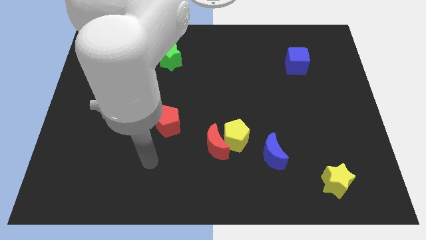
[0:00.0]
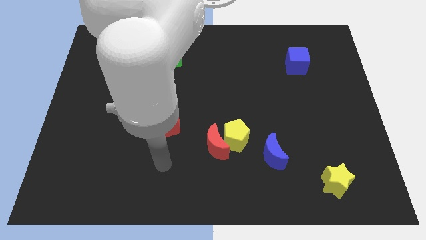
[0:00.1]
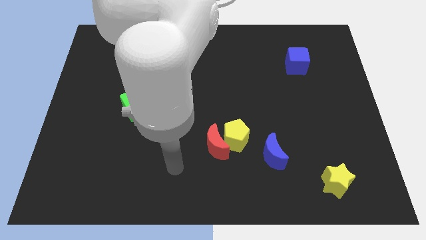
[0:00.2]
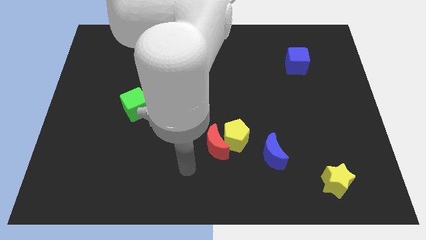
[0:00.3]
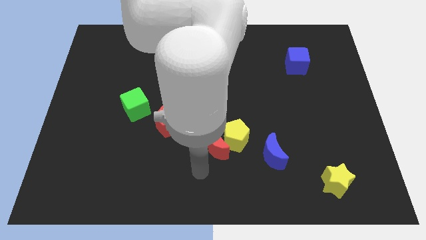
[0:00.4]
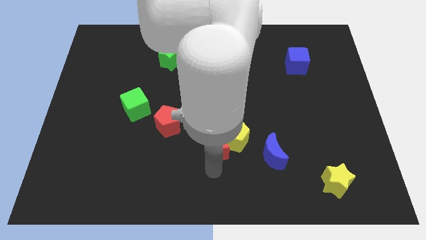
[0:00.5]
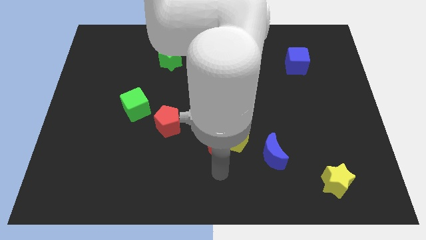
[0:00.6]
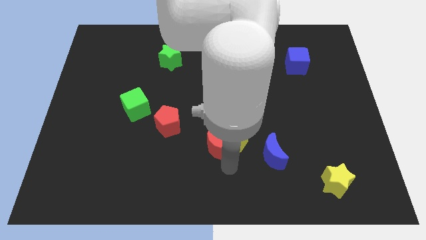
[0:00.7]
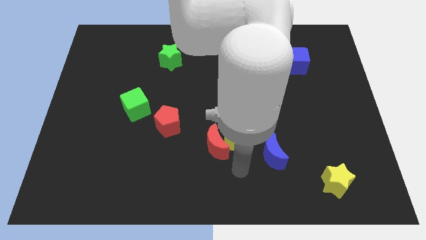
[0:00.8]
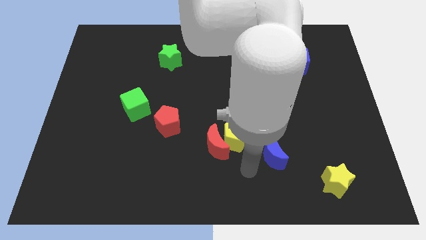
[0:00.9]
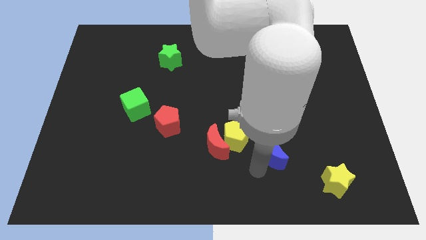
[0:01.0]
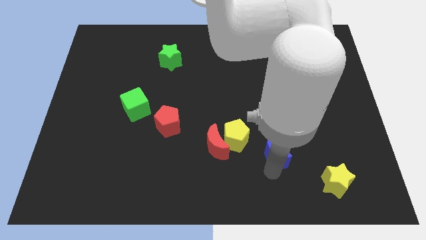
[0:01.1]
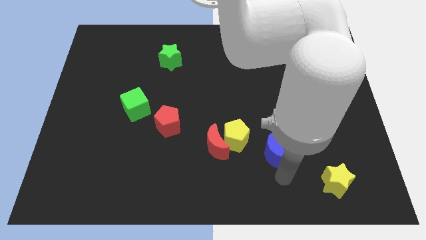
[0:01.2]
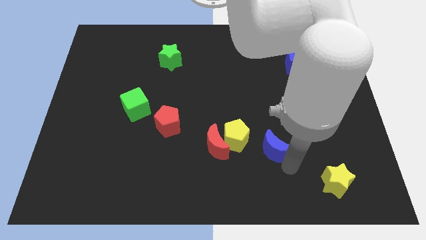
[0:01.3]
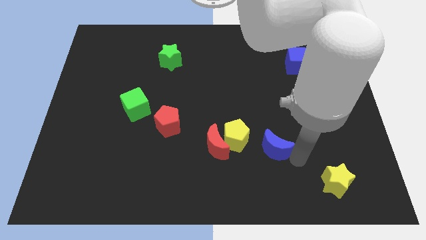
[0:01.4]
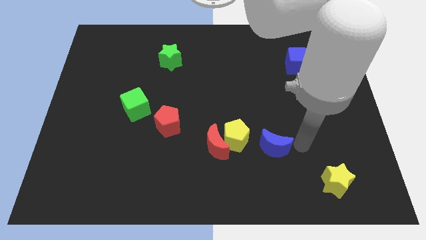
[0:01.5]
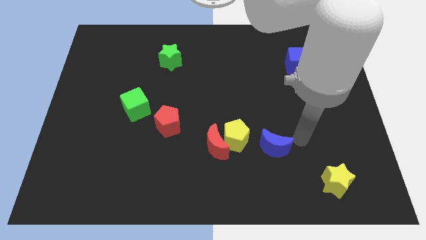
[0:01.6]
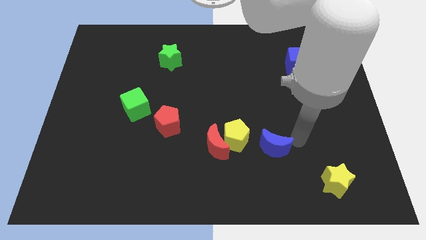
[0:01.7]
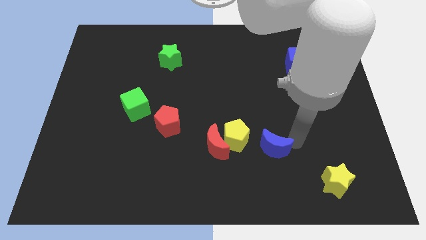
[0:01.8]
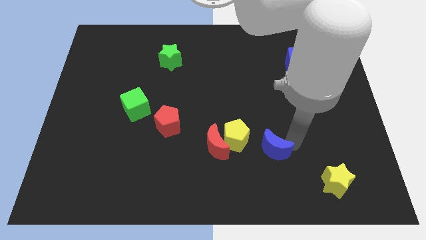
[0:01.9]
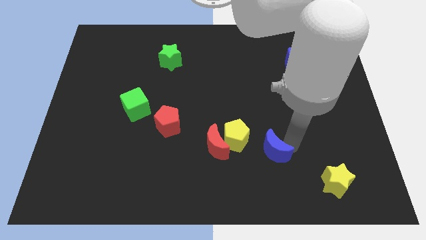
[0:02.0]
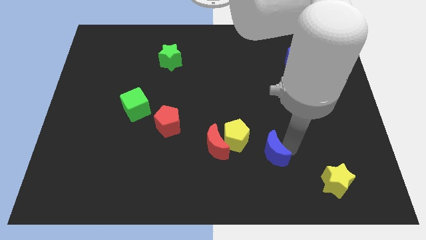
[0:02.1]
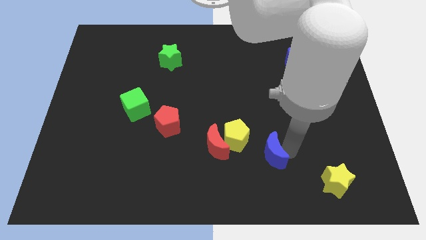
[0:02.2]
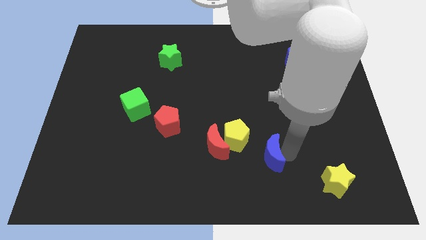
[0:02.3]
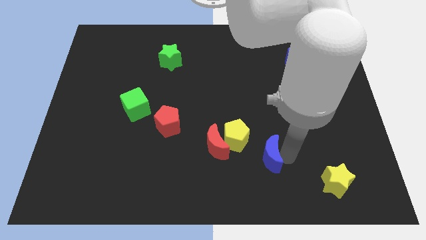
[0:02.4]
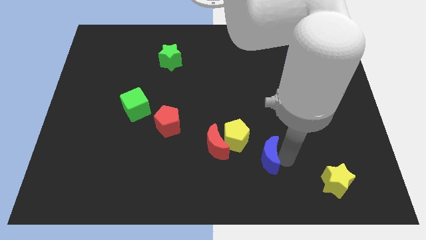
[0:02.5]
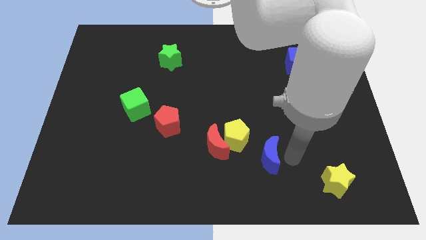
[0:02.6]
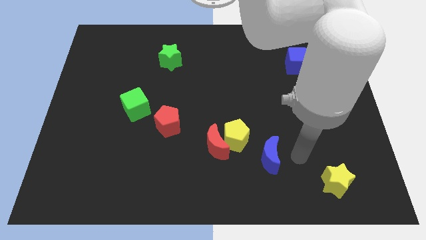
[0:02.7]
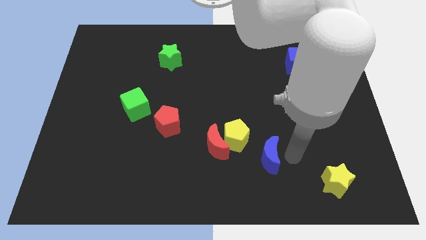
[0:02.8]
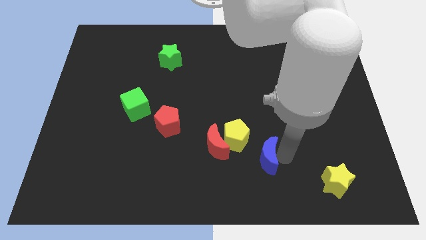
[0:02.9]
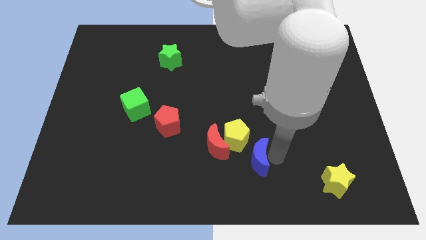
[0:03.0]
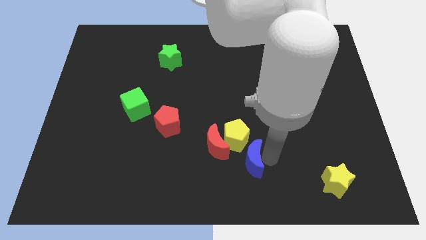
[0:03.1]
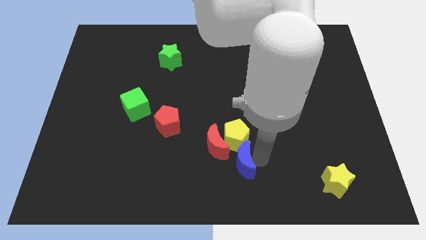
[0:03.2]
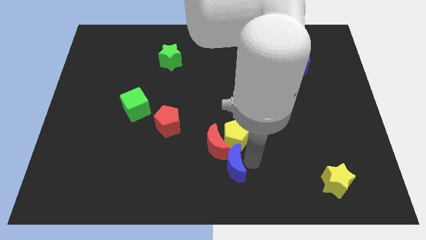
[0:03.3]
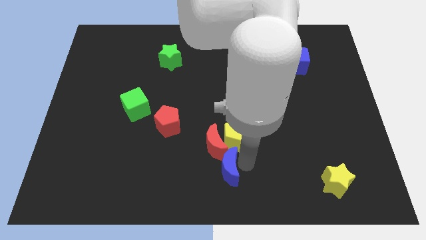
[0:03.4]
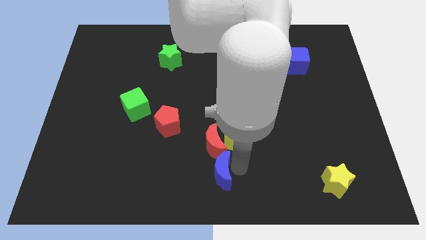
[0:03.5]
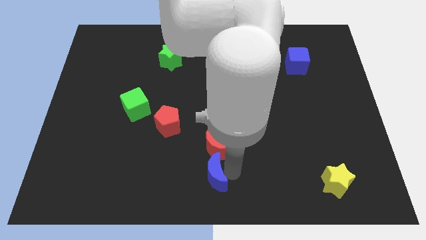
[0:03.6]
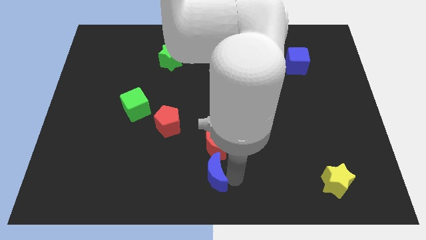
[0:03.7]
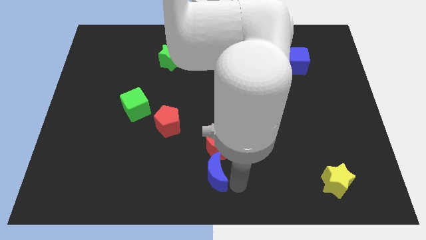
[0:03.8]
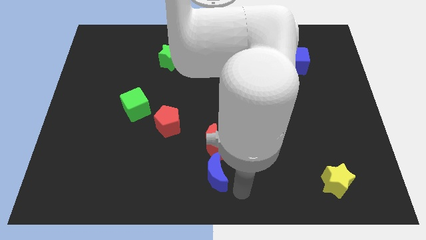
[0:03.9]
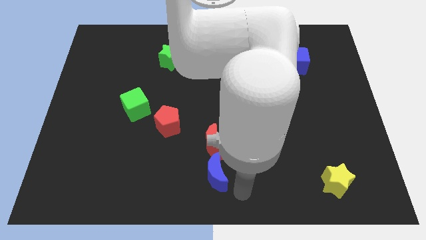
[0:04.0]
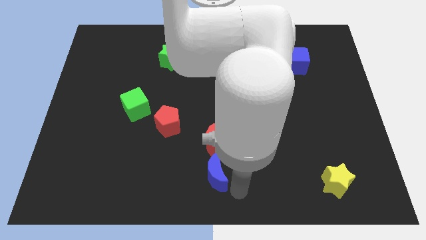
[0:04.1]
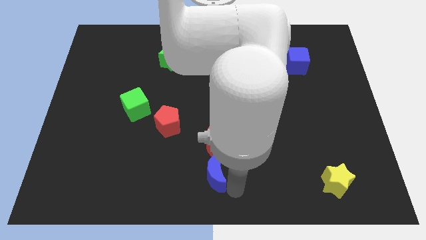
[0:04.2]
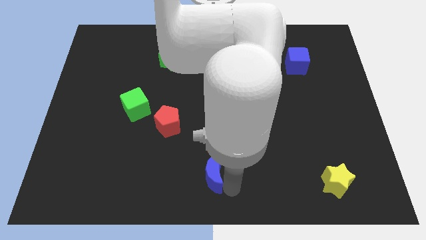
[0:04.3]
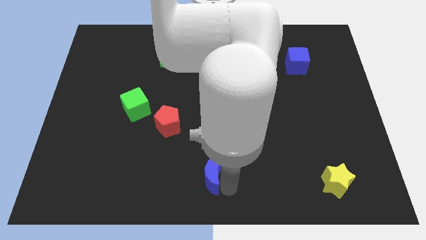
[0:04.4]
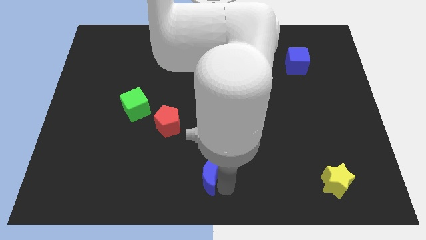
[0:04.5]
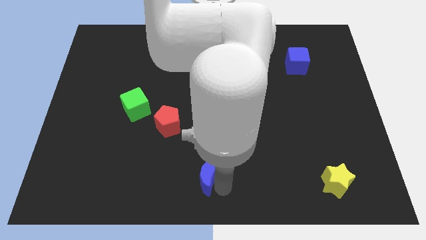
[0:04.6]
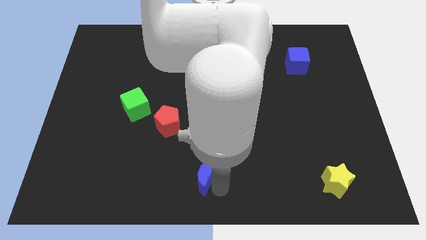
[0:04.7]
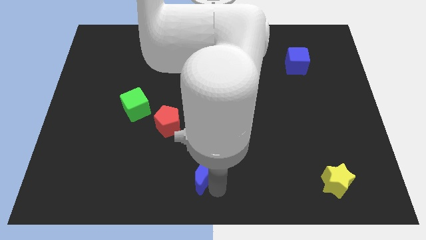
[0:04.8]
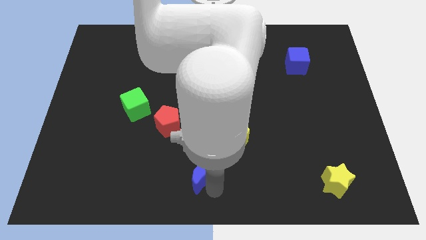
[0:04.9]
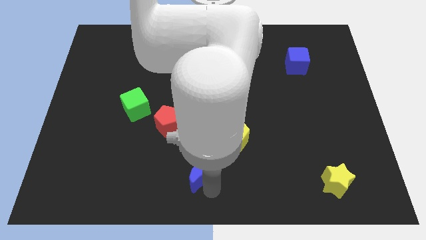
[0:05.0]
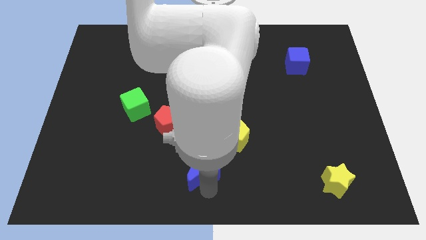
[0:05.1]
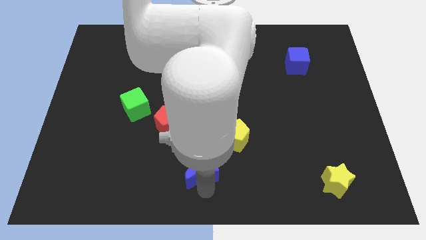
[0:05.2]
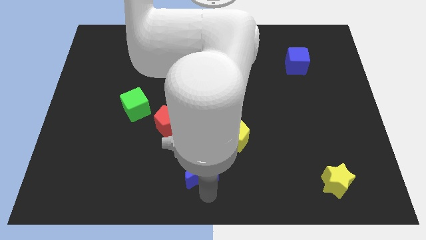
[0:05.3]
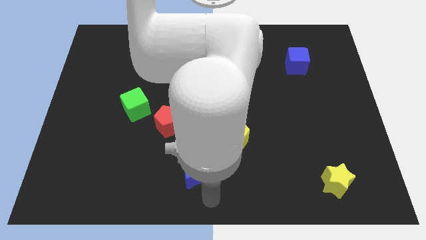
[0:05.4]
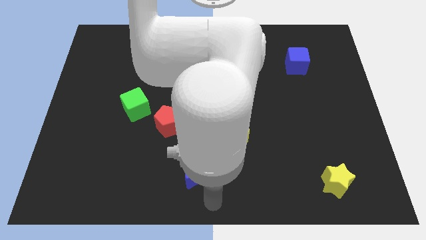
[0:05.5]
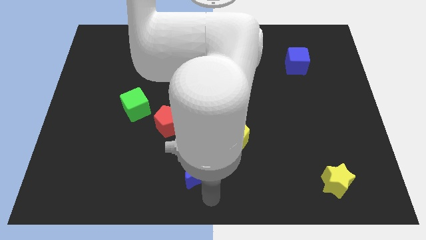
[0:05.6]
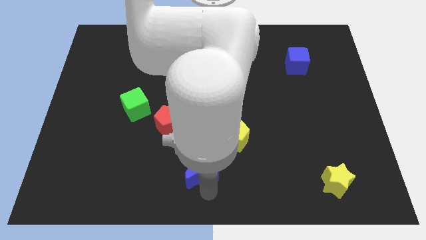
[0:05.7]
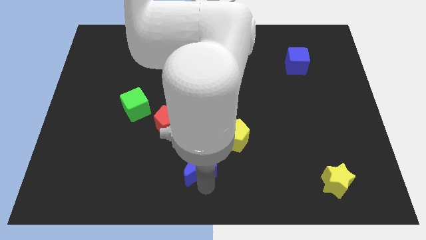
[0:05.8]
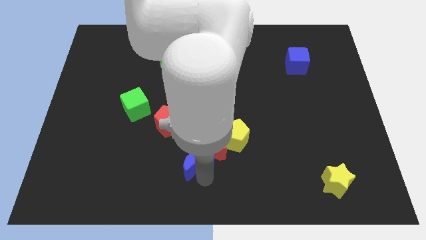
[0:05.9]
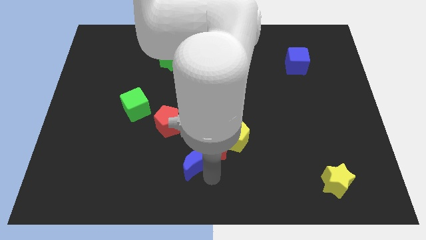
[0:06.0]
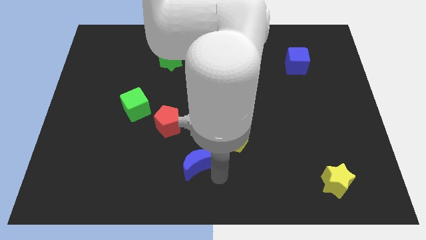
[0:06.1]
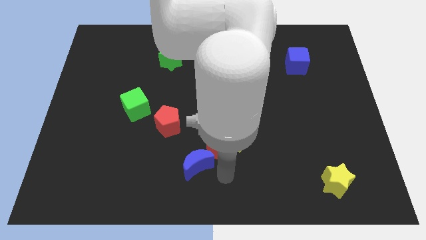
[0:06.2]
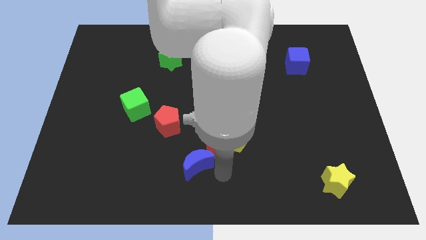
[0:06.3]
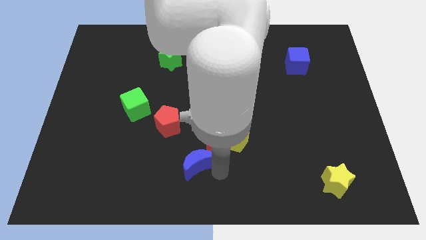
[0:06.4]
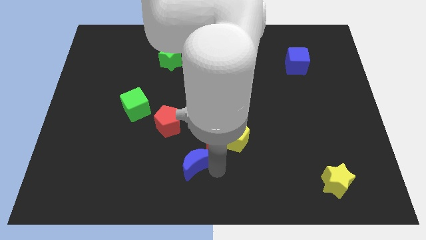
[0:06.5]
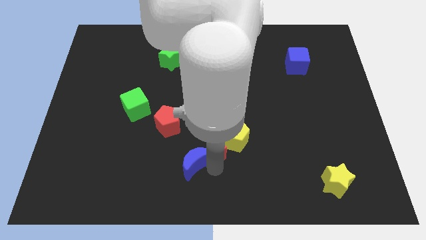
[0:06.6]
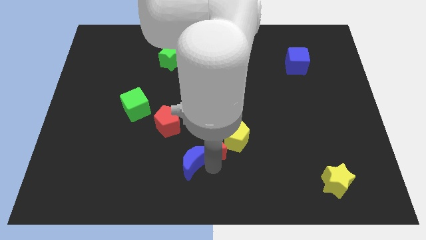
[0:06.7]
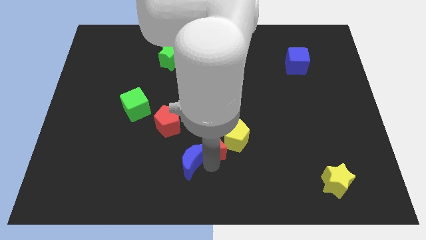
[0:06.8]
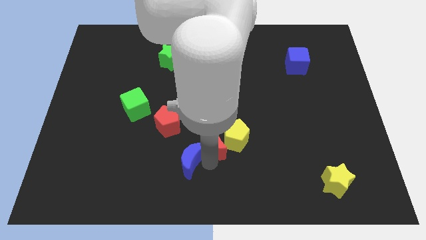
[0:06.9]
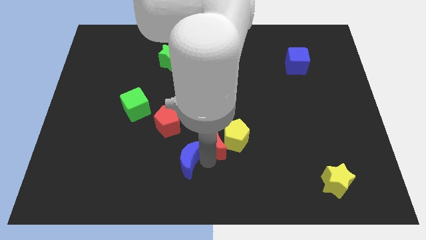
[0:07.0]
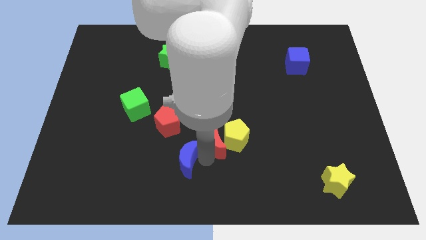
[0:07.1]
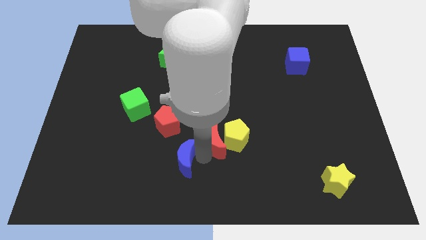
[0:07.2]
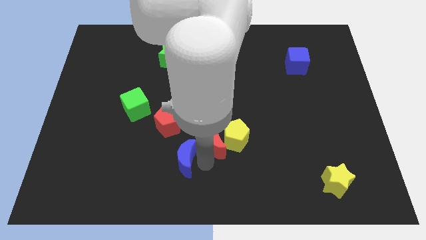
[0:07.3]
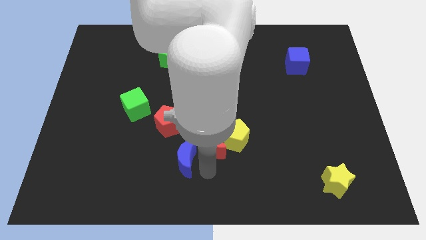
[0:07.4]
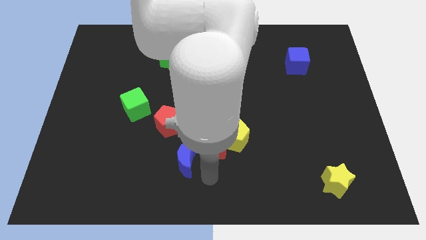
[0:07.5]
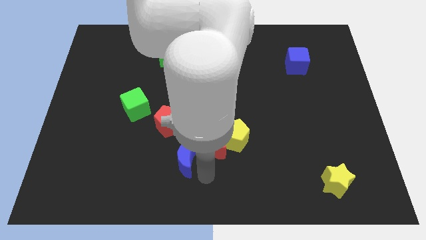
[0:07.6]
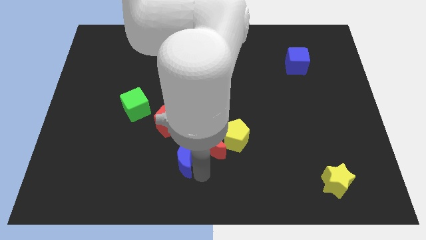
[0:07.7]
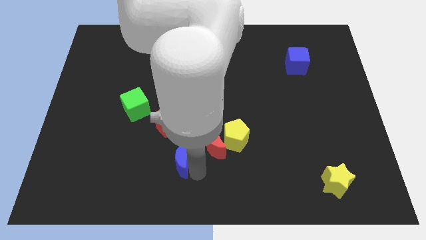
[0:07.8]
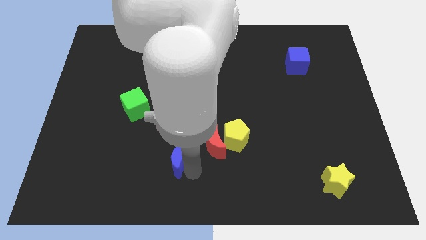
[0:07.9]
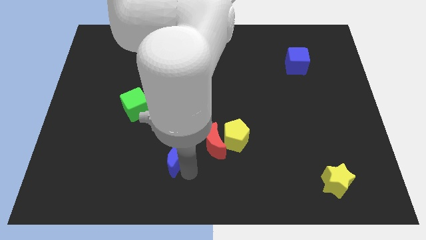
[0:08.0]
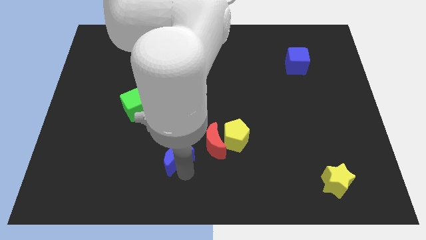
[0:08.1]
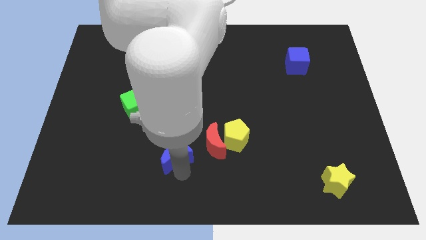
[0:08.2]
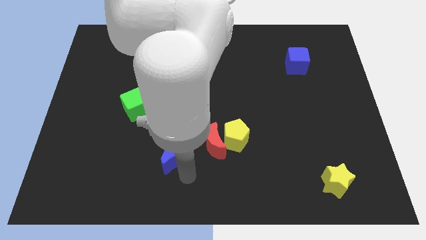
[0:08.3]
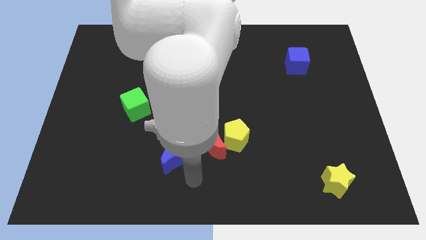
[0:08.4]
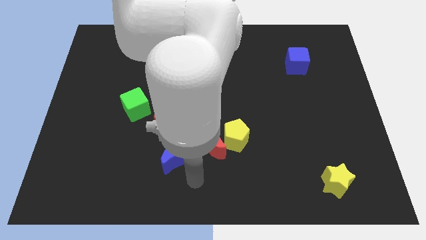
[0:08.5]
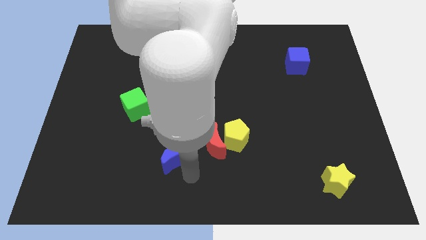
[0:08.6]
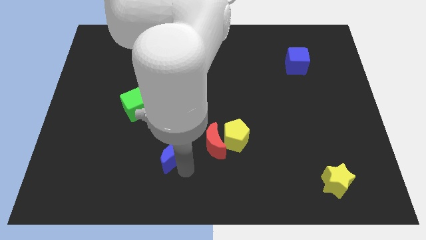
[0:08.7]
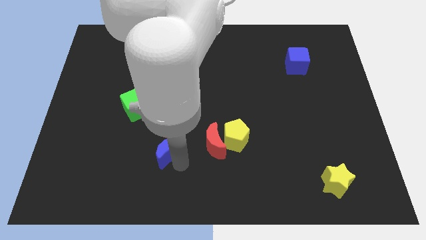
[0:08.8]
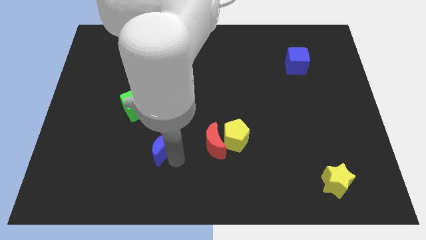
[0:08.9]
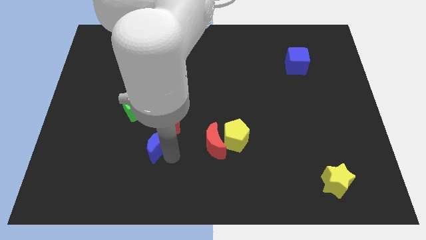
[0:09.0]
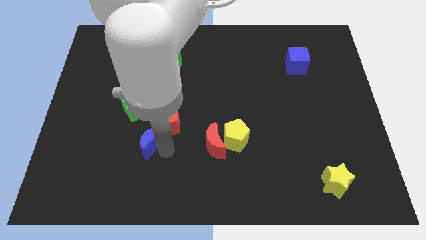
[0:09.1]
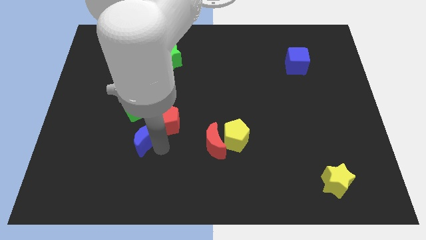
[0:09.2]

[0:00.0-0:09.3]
push the blue moon just left of the red pentagon
